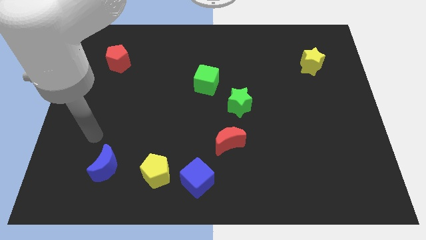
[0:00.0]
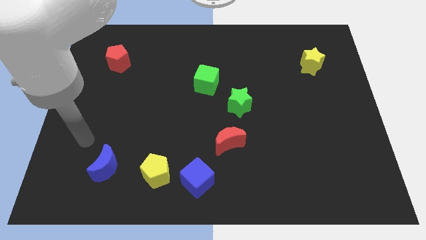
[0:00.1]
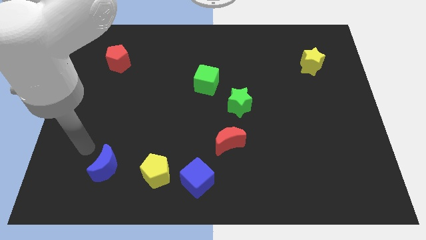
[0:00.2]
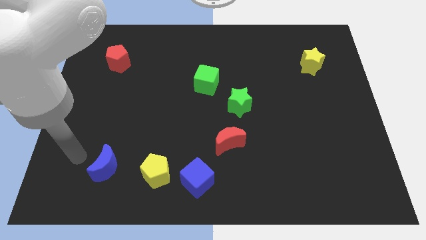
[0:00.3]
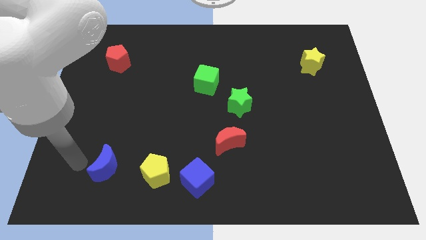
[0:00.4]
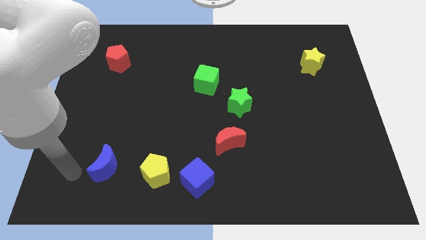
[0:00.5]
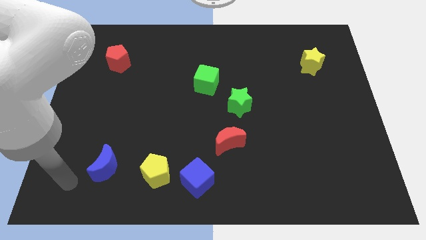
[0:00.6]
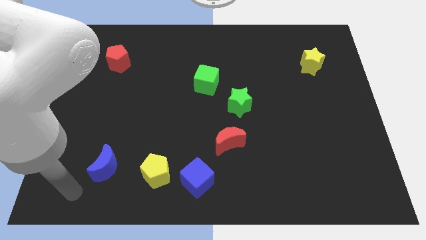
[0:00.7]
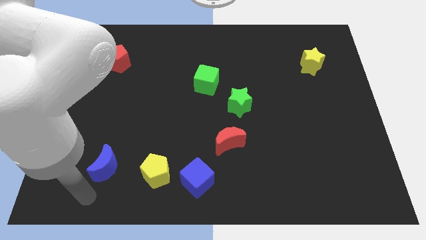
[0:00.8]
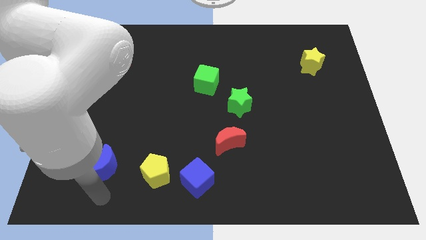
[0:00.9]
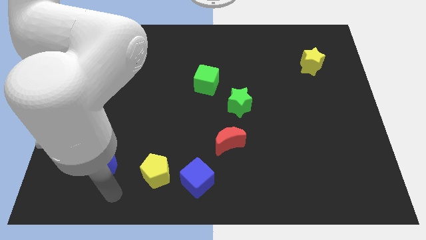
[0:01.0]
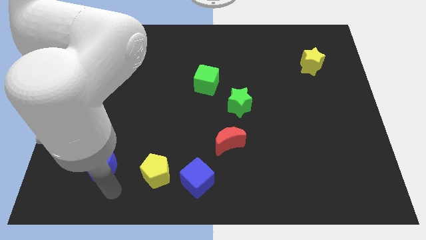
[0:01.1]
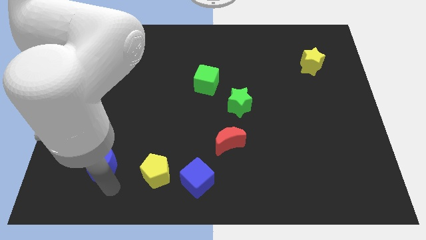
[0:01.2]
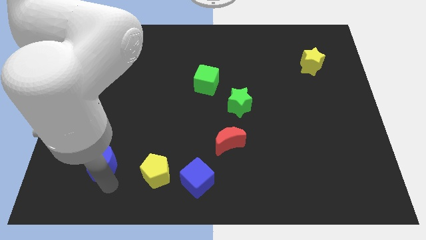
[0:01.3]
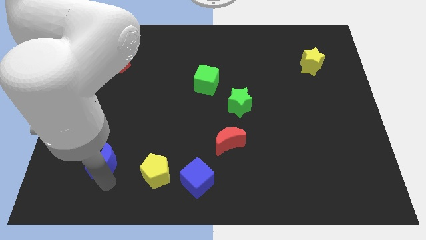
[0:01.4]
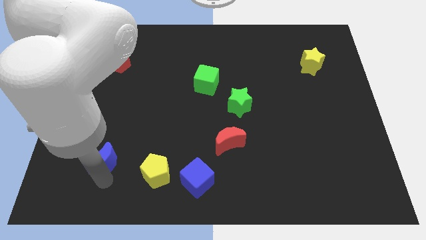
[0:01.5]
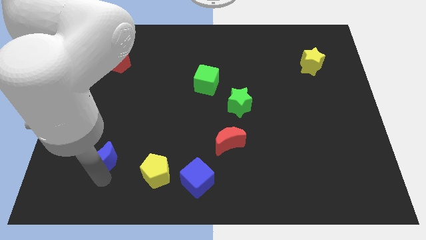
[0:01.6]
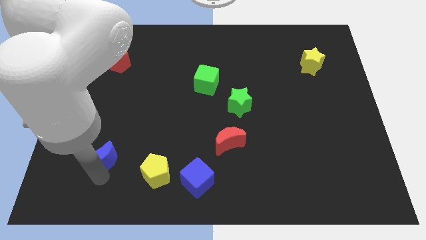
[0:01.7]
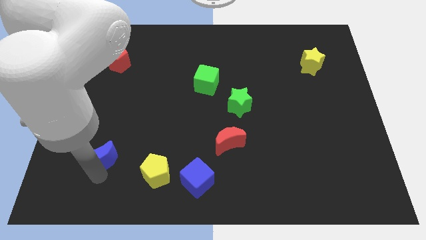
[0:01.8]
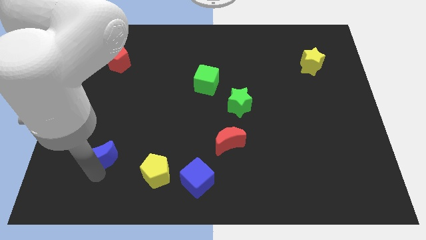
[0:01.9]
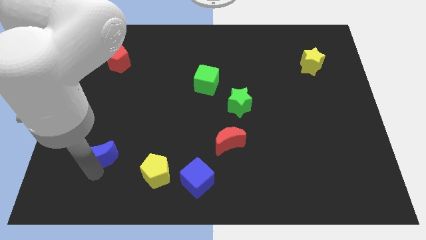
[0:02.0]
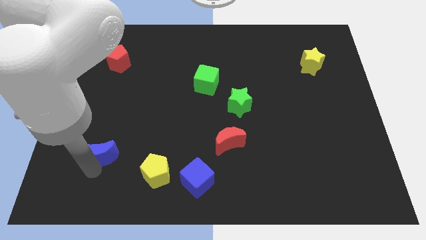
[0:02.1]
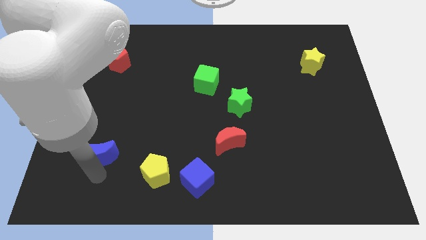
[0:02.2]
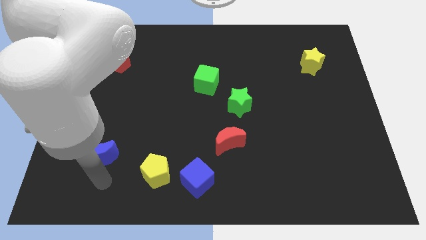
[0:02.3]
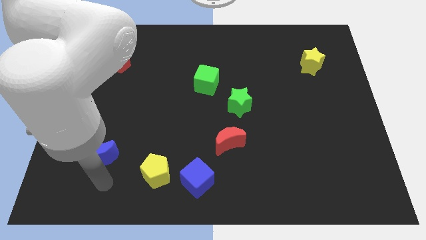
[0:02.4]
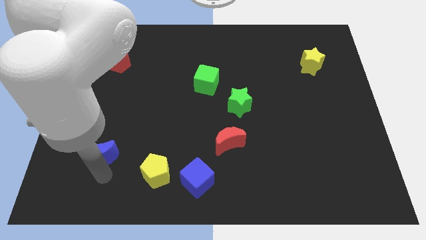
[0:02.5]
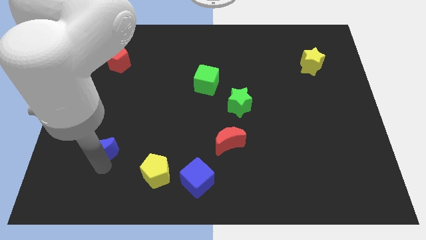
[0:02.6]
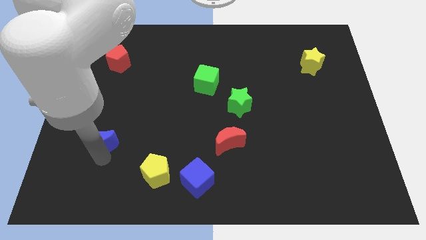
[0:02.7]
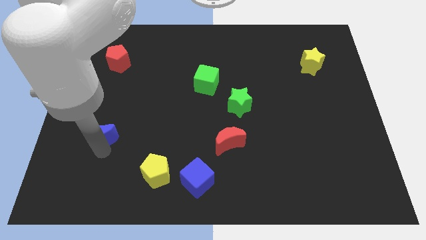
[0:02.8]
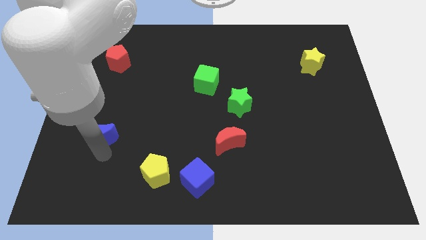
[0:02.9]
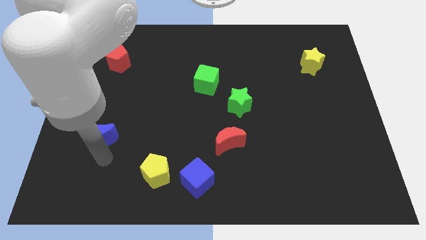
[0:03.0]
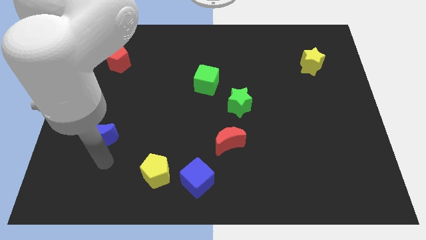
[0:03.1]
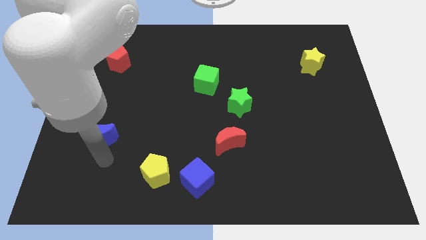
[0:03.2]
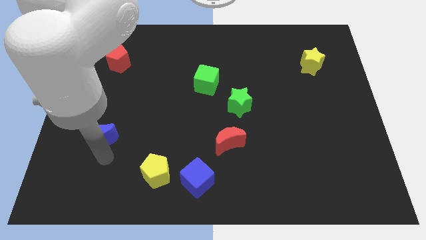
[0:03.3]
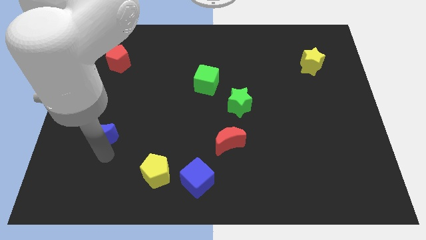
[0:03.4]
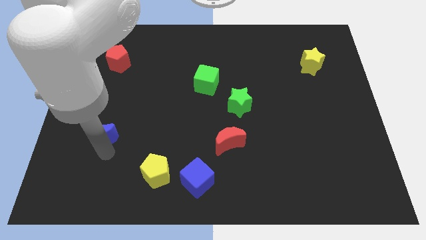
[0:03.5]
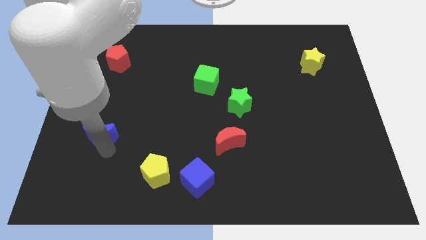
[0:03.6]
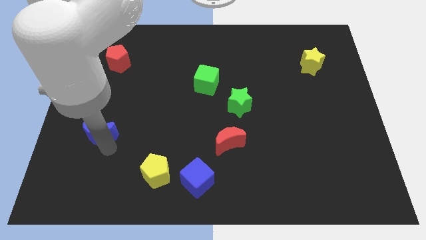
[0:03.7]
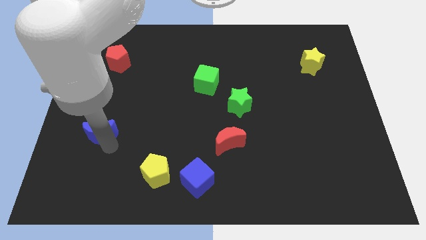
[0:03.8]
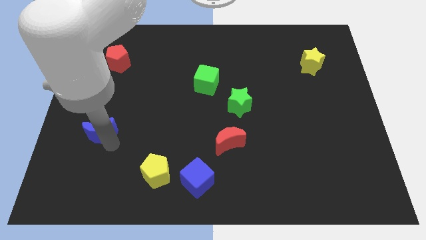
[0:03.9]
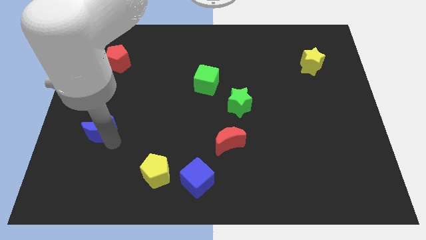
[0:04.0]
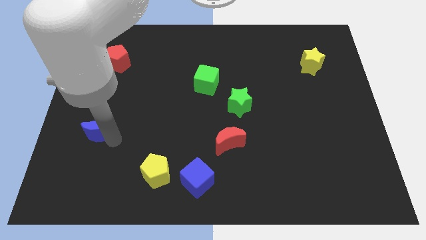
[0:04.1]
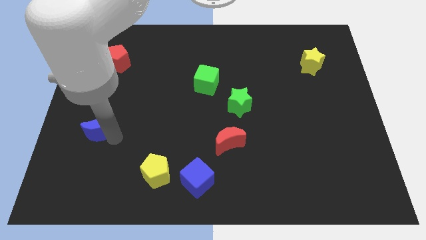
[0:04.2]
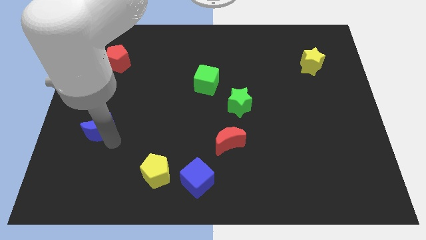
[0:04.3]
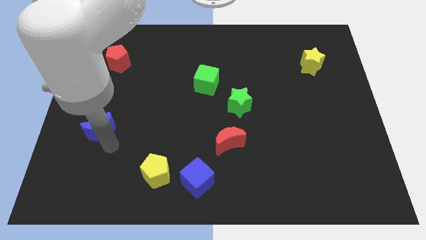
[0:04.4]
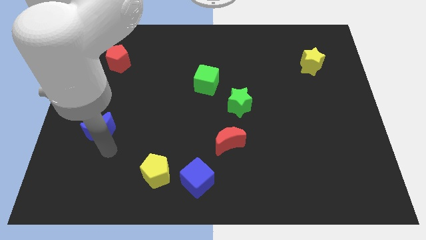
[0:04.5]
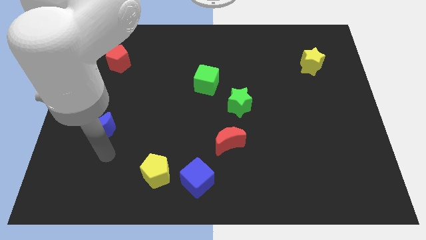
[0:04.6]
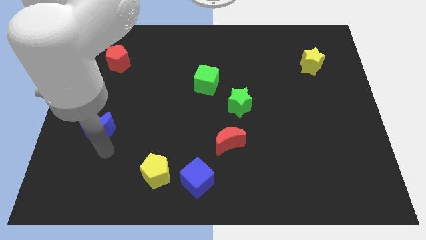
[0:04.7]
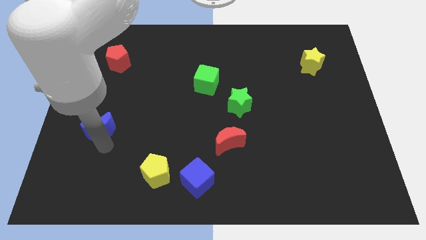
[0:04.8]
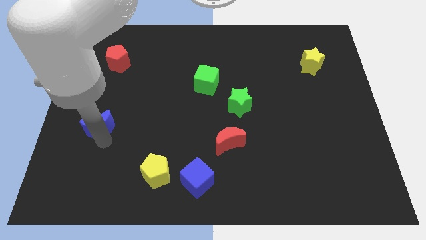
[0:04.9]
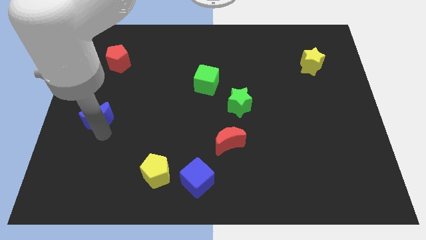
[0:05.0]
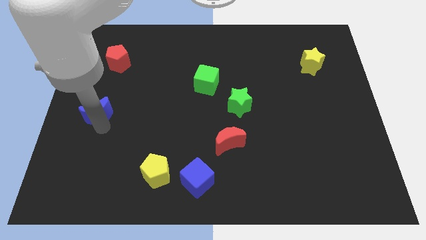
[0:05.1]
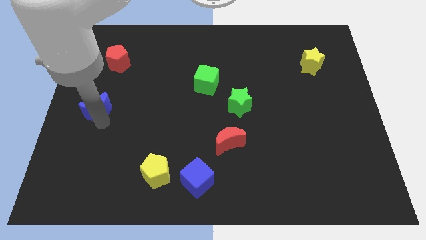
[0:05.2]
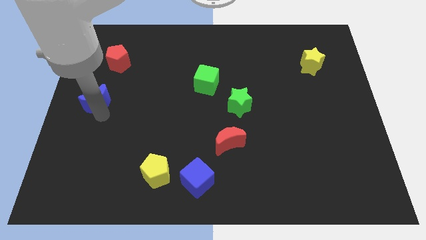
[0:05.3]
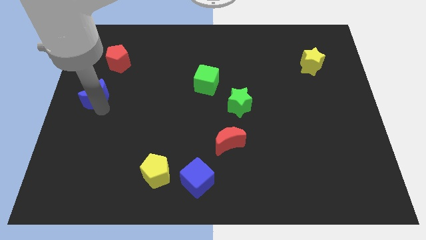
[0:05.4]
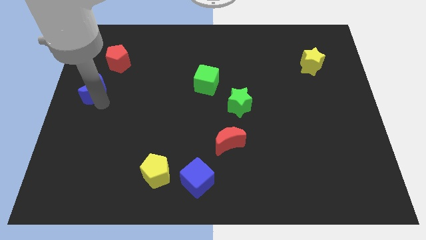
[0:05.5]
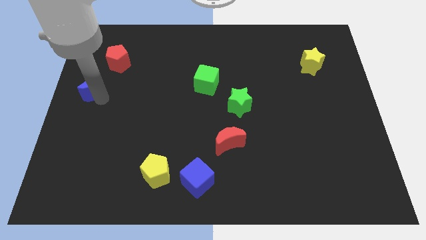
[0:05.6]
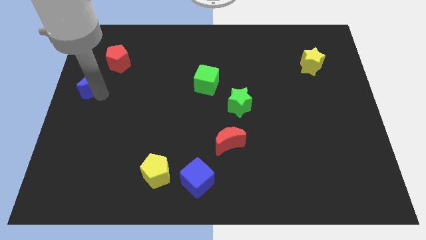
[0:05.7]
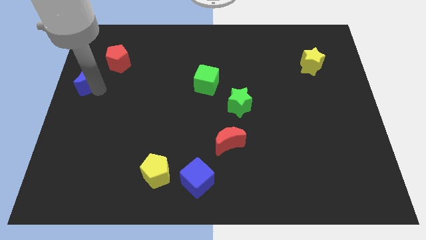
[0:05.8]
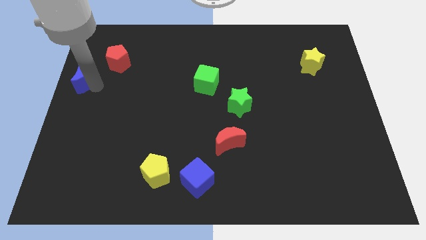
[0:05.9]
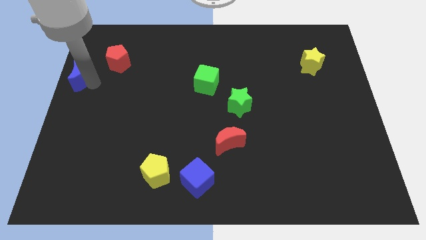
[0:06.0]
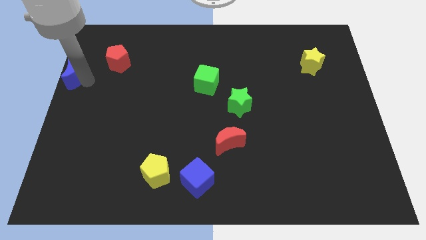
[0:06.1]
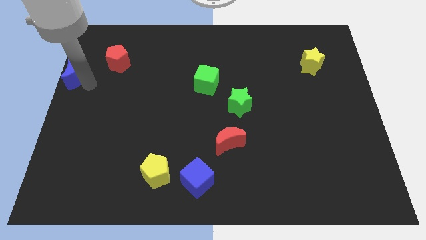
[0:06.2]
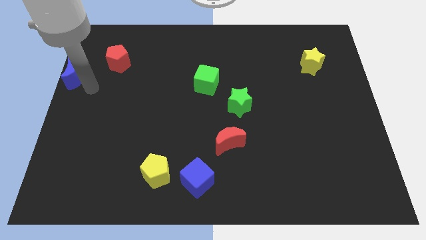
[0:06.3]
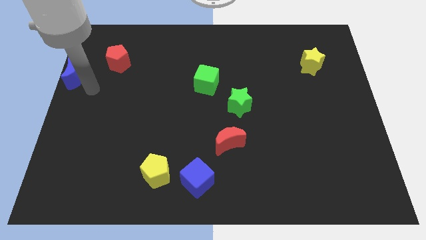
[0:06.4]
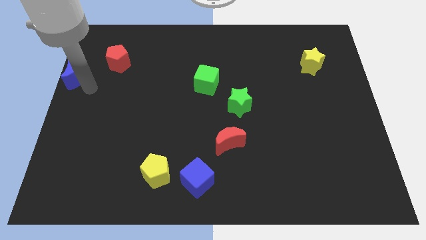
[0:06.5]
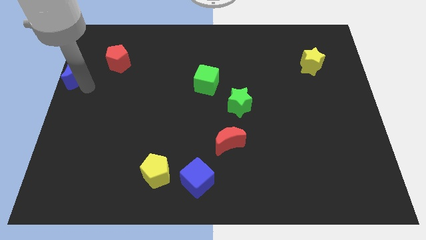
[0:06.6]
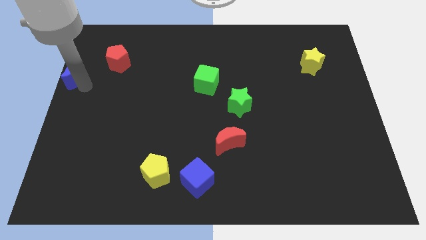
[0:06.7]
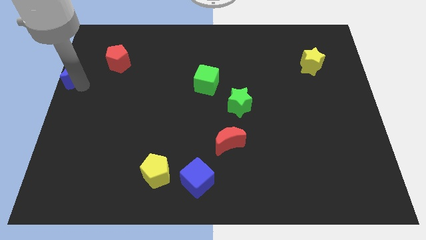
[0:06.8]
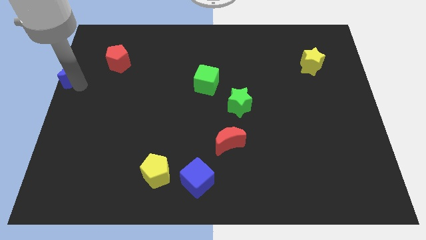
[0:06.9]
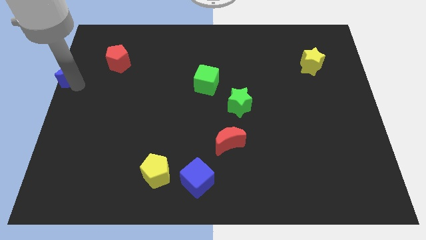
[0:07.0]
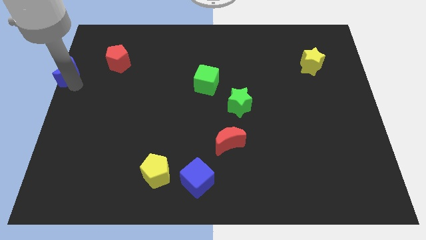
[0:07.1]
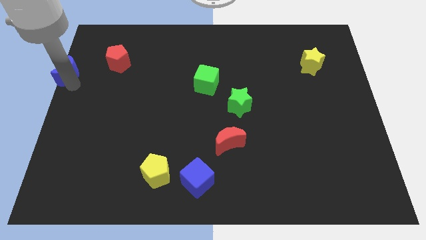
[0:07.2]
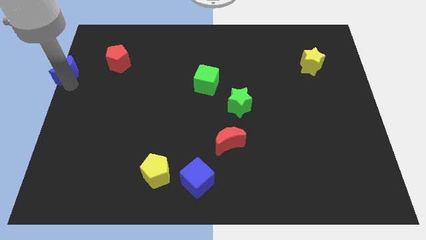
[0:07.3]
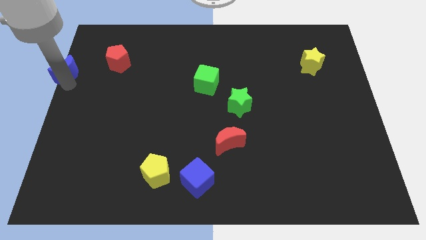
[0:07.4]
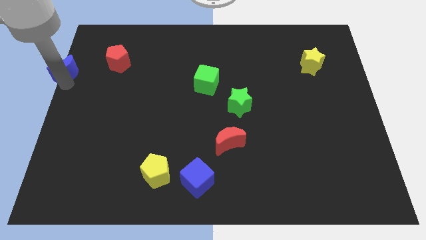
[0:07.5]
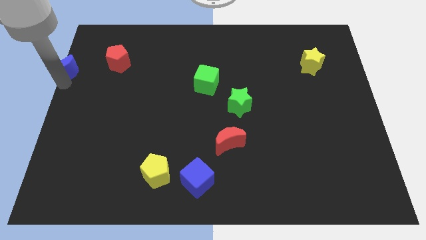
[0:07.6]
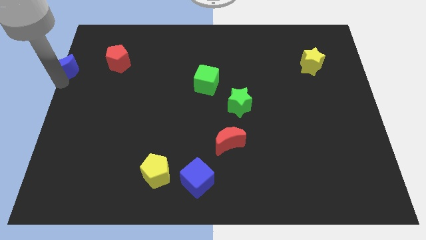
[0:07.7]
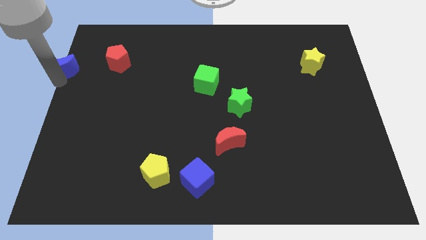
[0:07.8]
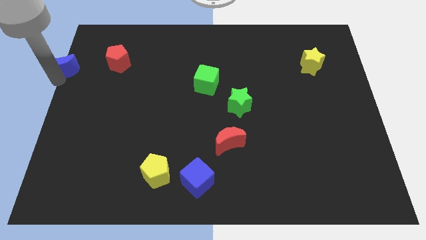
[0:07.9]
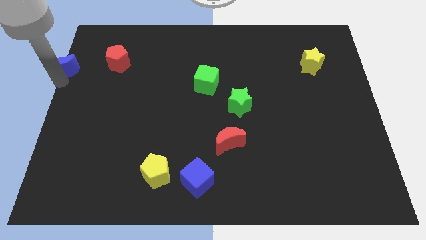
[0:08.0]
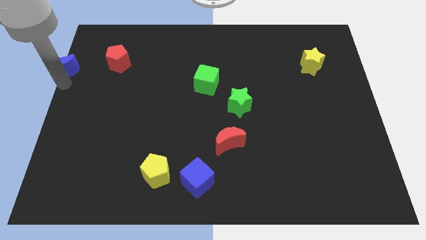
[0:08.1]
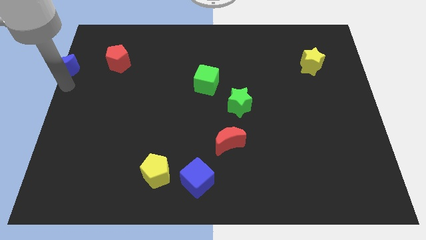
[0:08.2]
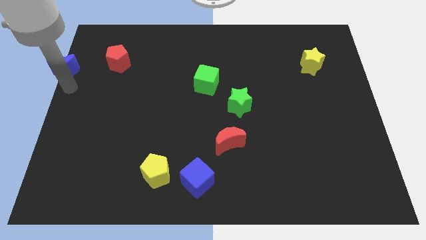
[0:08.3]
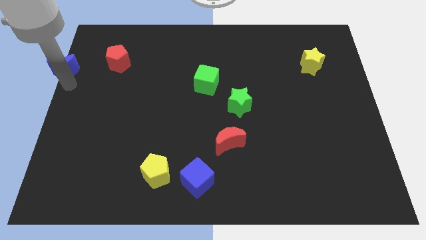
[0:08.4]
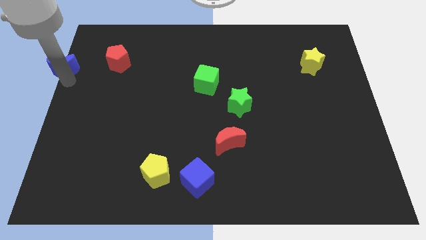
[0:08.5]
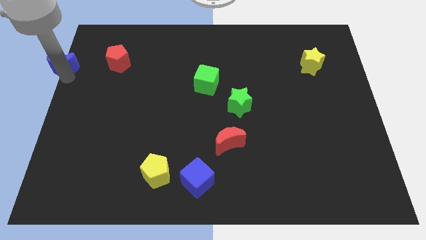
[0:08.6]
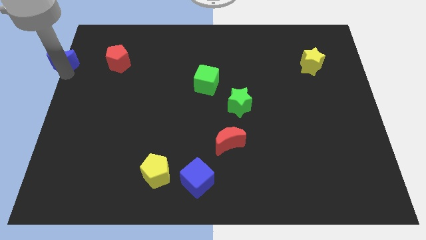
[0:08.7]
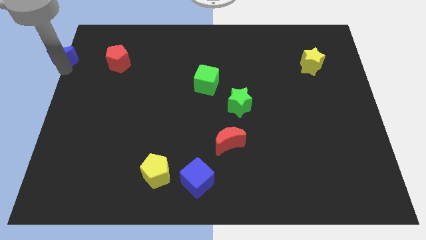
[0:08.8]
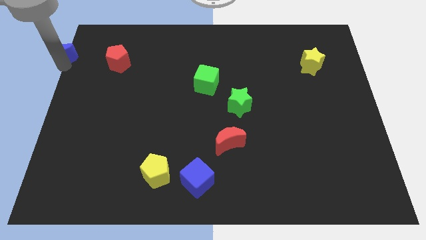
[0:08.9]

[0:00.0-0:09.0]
push the blue moon to the top left corner
